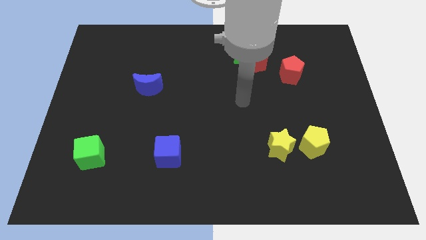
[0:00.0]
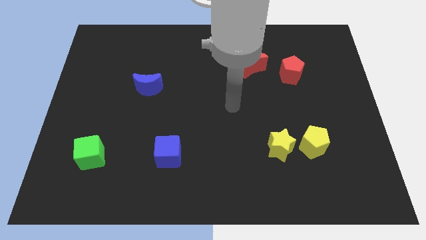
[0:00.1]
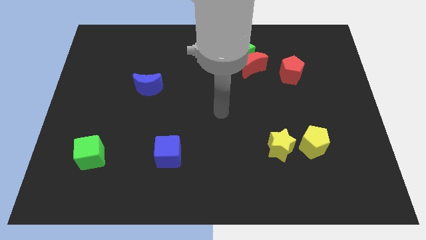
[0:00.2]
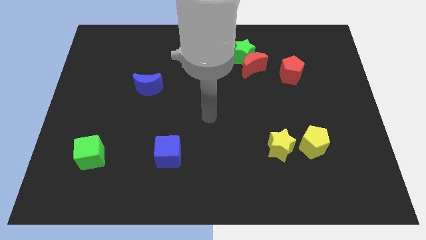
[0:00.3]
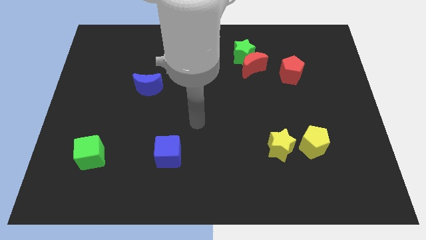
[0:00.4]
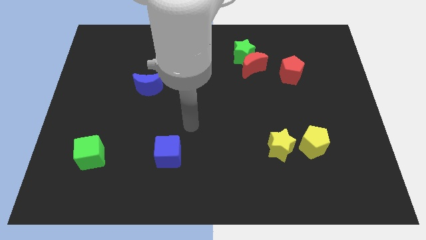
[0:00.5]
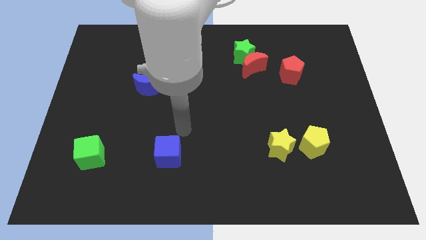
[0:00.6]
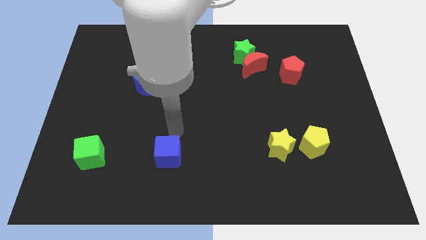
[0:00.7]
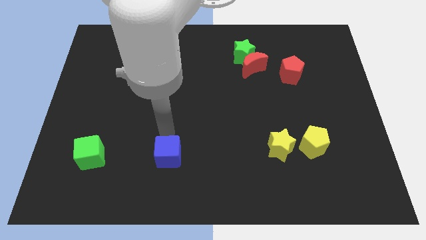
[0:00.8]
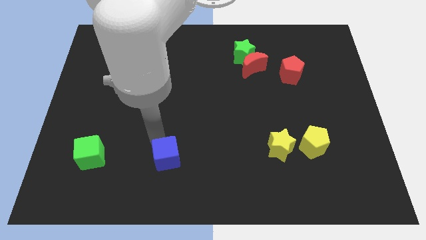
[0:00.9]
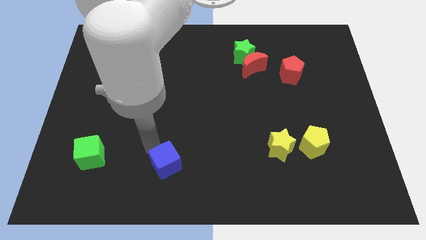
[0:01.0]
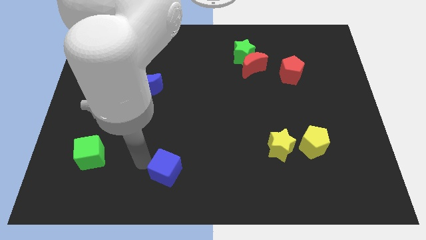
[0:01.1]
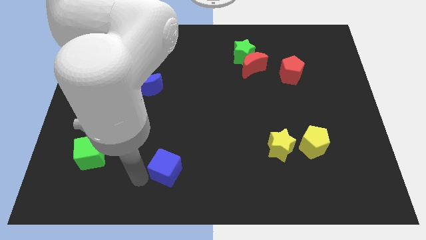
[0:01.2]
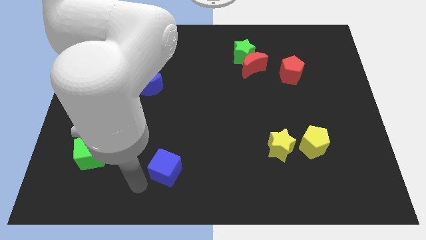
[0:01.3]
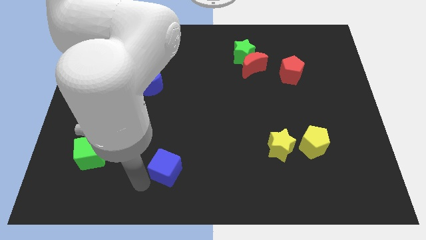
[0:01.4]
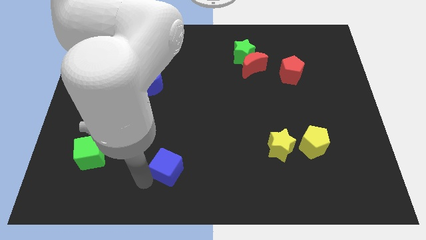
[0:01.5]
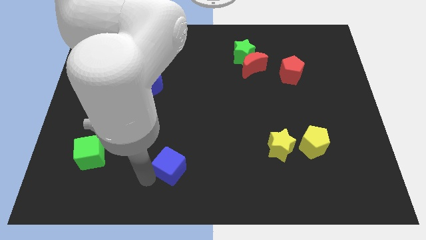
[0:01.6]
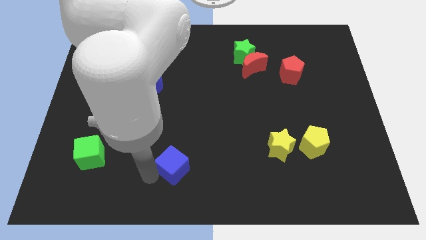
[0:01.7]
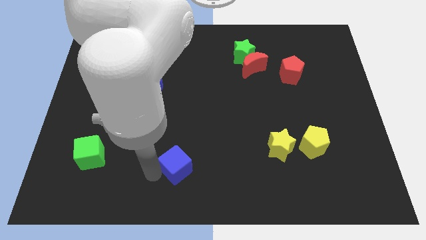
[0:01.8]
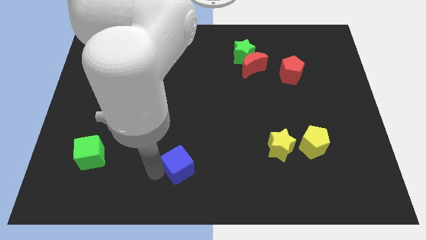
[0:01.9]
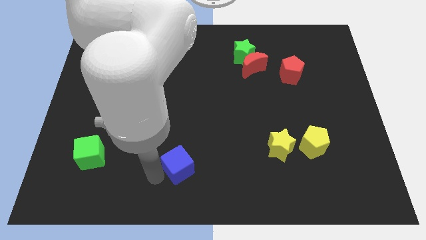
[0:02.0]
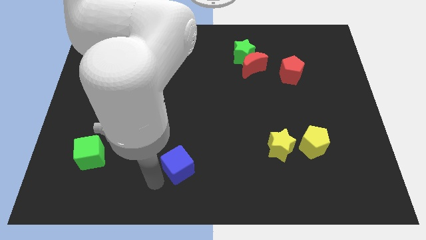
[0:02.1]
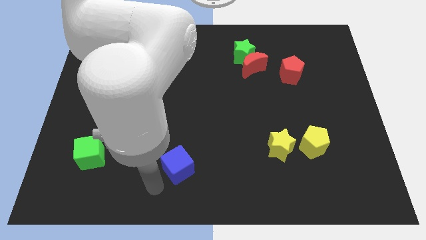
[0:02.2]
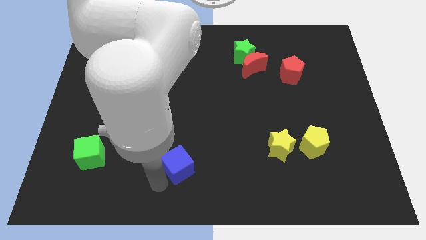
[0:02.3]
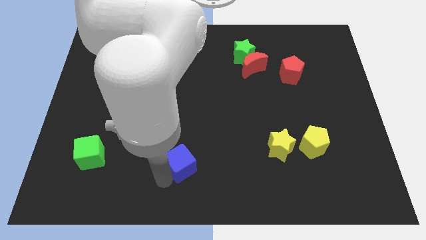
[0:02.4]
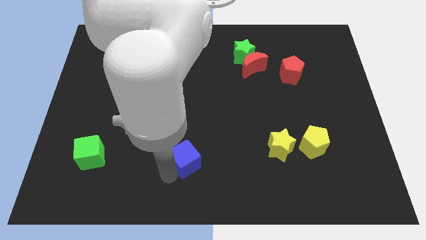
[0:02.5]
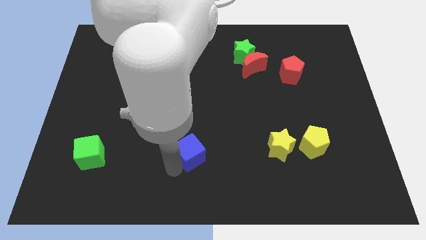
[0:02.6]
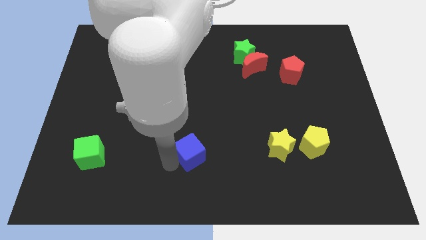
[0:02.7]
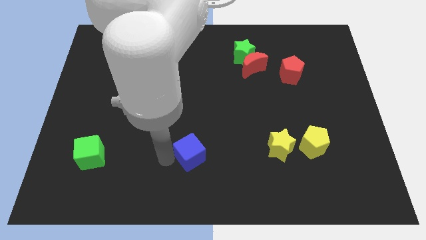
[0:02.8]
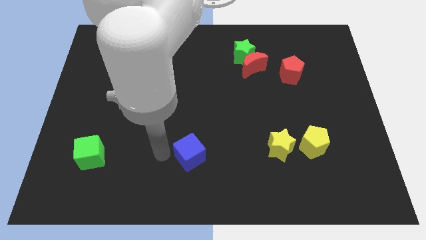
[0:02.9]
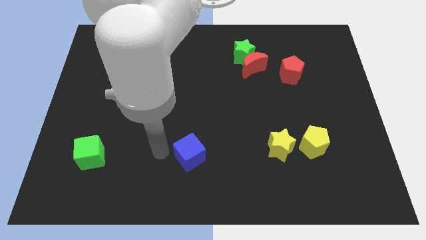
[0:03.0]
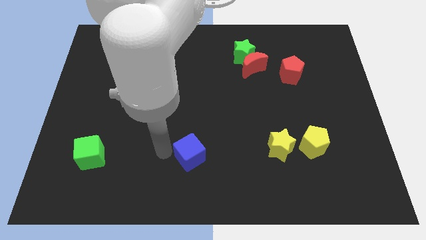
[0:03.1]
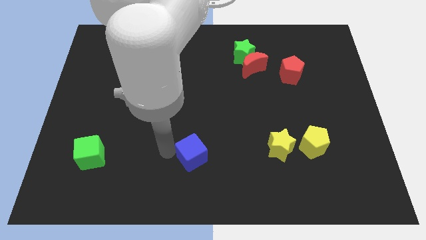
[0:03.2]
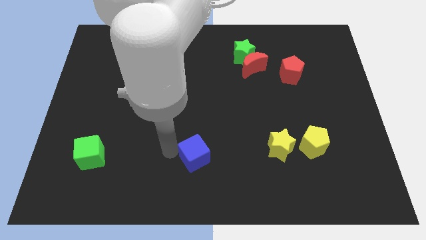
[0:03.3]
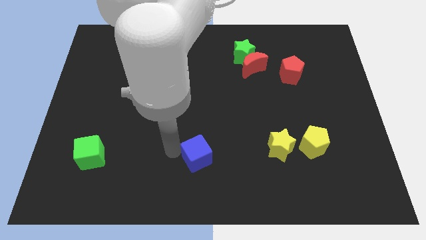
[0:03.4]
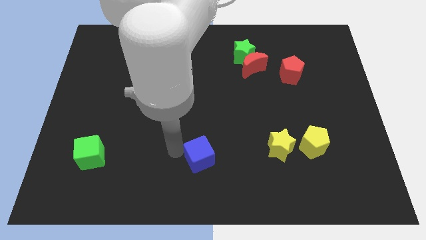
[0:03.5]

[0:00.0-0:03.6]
slide the blue cube to the right a bit

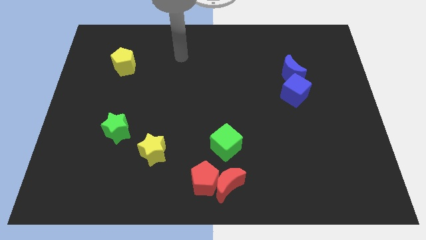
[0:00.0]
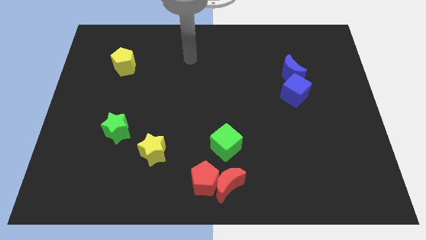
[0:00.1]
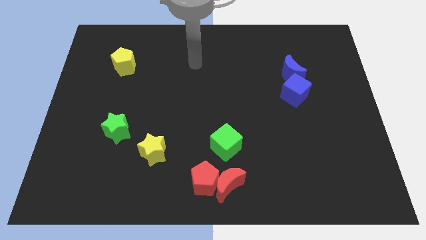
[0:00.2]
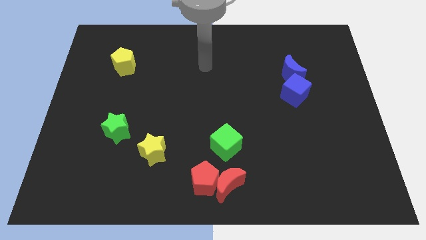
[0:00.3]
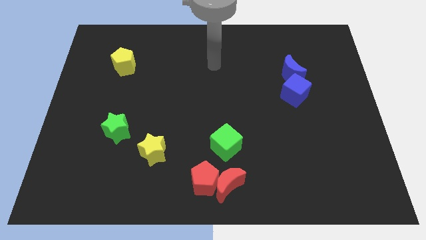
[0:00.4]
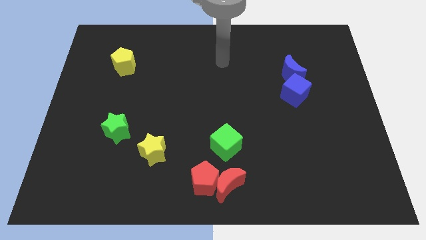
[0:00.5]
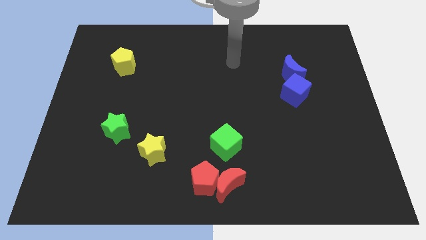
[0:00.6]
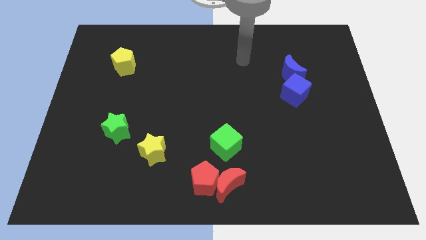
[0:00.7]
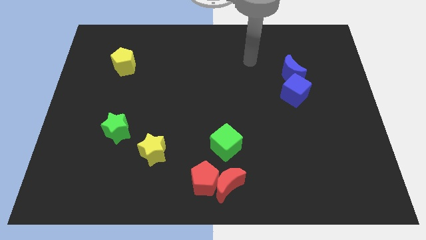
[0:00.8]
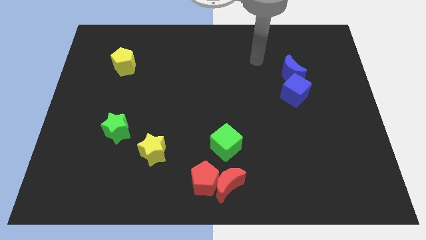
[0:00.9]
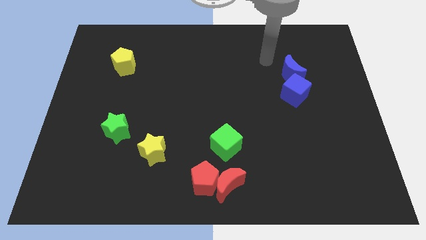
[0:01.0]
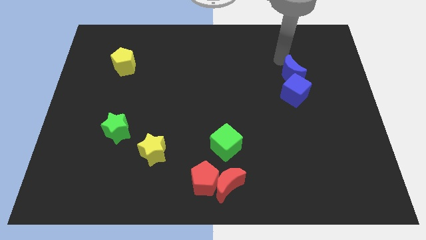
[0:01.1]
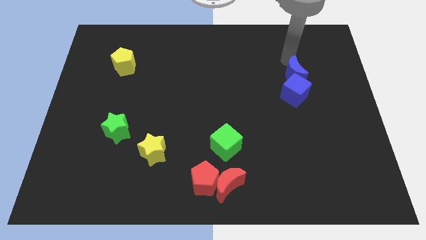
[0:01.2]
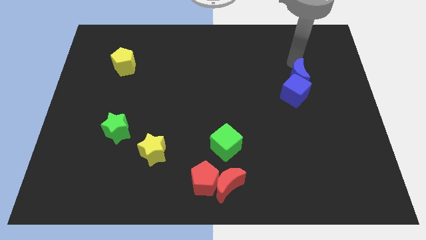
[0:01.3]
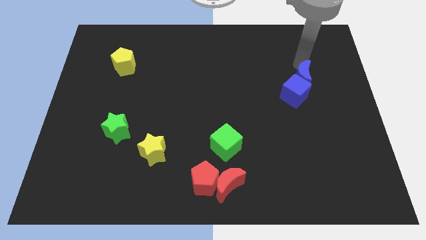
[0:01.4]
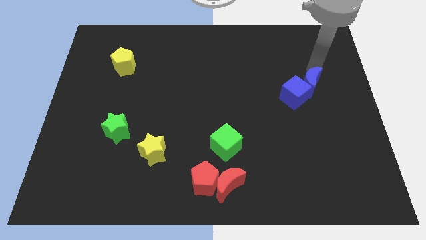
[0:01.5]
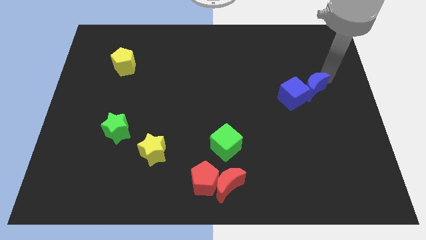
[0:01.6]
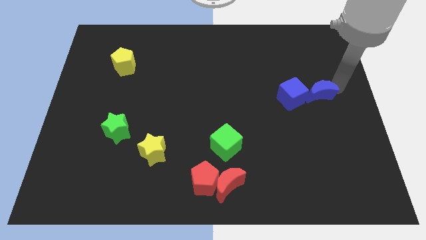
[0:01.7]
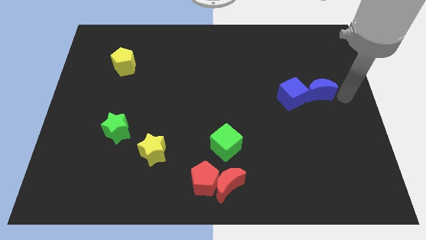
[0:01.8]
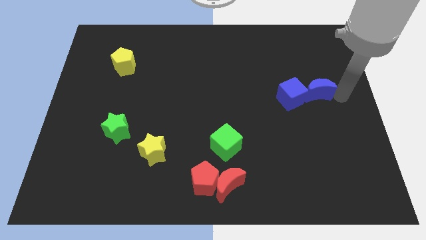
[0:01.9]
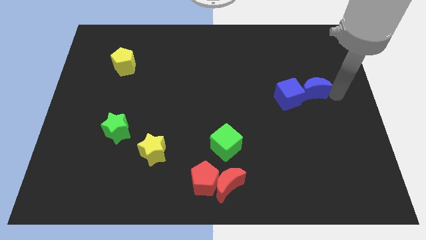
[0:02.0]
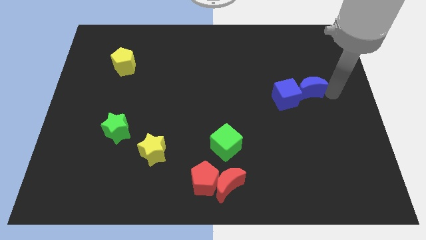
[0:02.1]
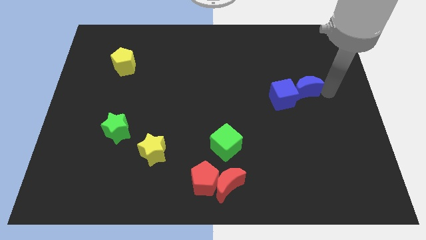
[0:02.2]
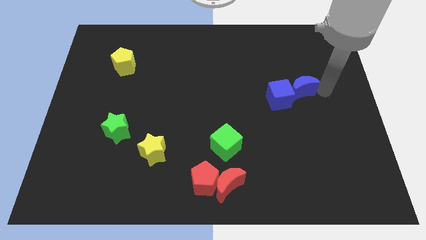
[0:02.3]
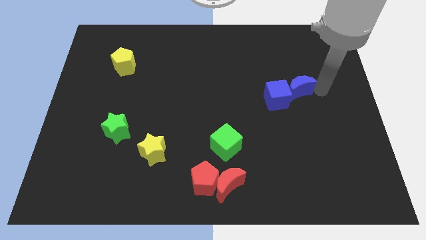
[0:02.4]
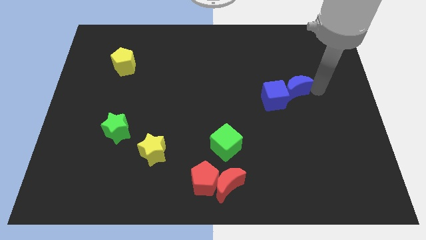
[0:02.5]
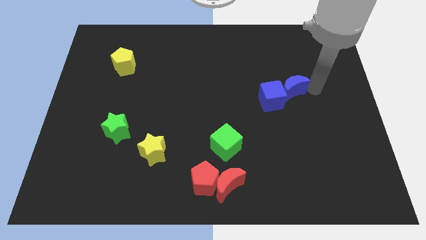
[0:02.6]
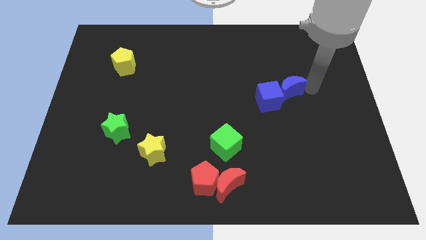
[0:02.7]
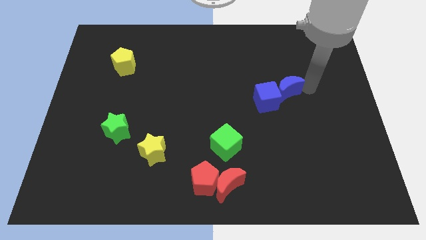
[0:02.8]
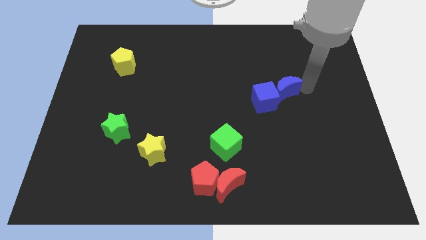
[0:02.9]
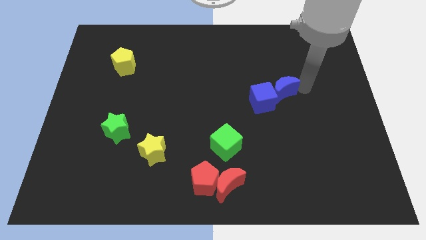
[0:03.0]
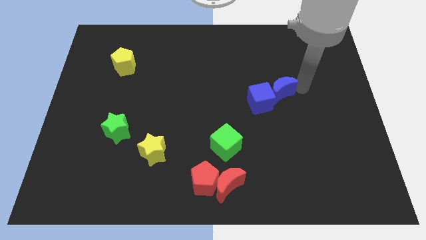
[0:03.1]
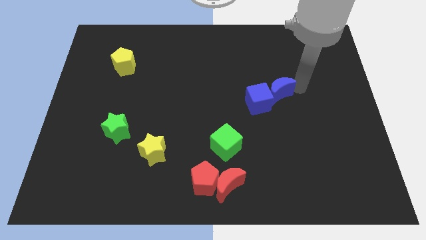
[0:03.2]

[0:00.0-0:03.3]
move the blue moon down and to the left a little bit

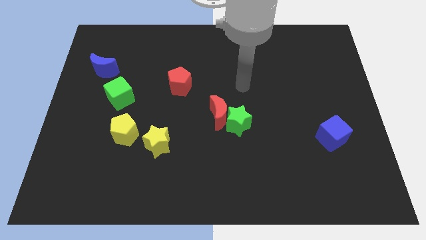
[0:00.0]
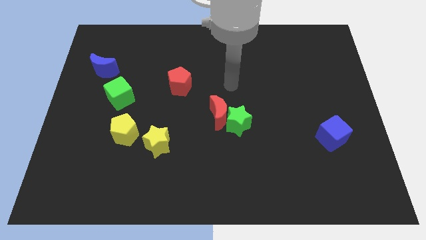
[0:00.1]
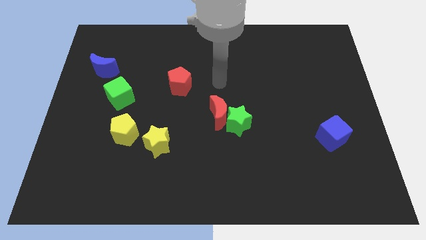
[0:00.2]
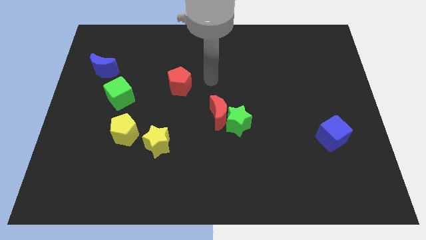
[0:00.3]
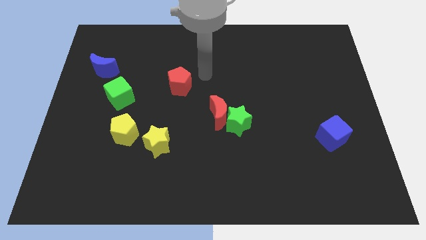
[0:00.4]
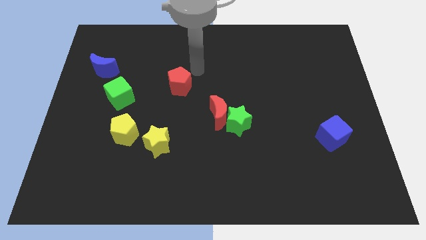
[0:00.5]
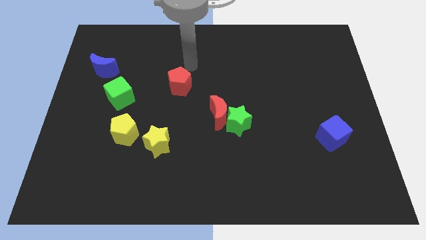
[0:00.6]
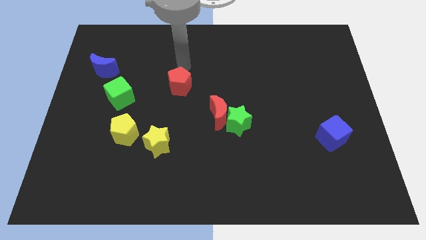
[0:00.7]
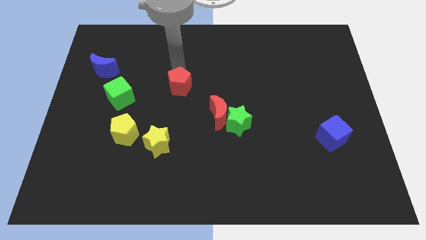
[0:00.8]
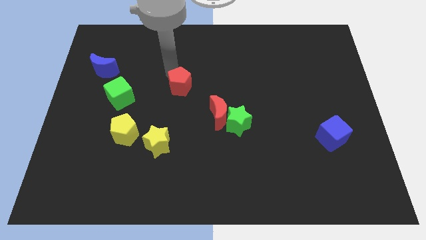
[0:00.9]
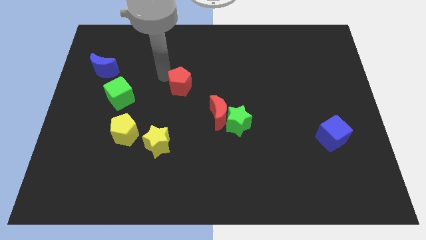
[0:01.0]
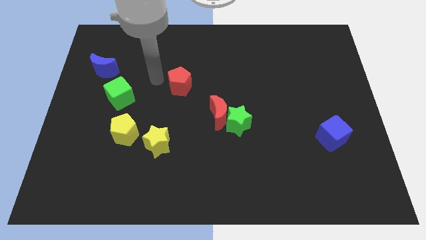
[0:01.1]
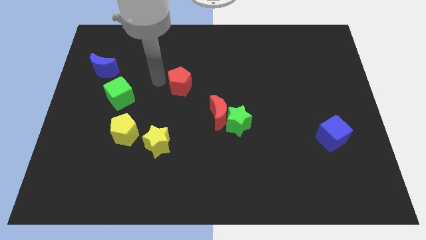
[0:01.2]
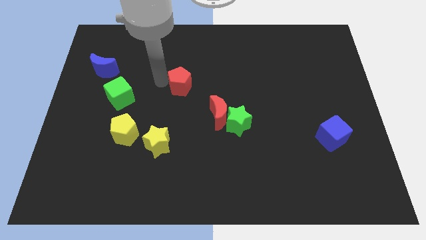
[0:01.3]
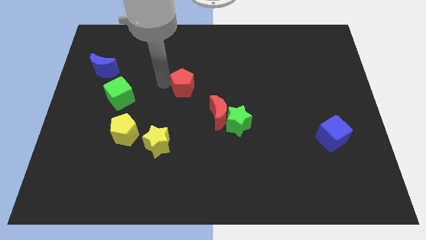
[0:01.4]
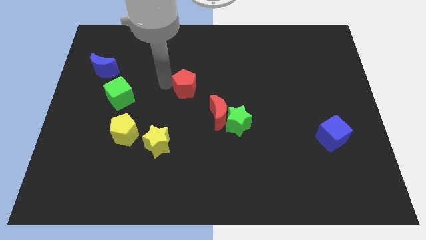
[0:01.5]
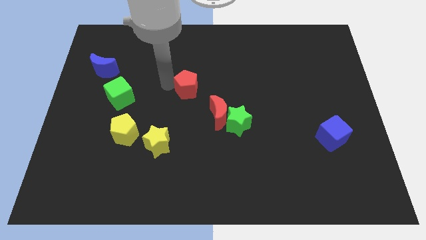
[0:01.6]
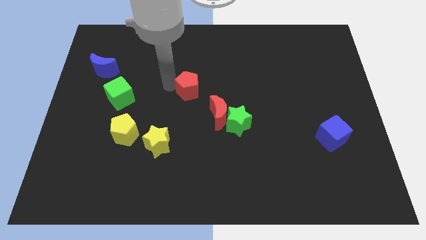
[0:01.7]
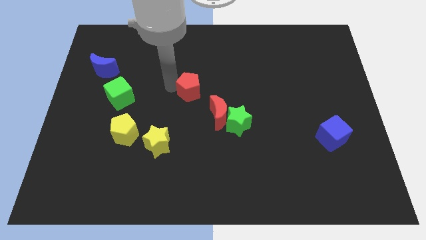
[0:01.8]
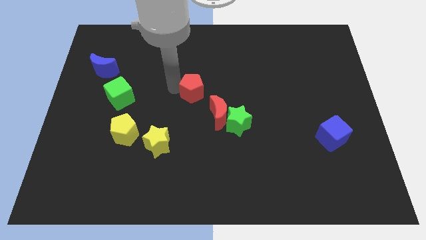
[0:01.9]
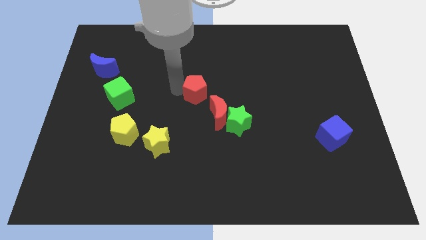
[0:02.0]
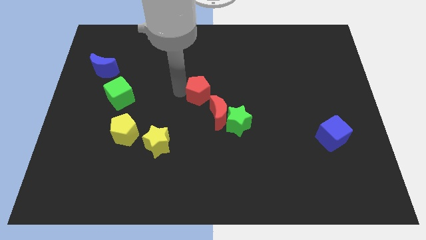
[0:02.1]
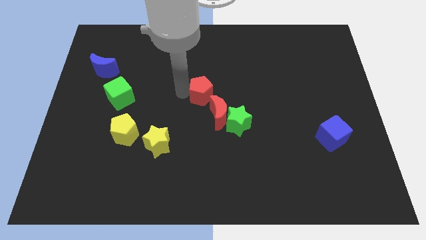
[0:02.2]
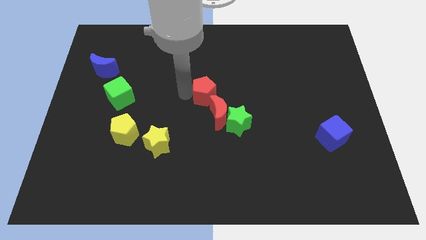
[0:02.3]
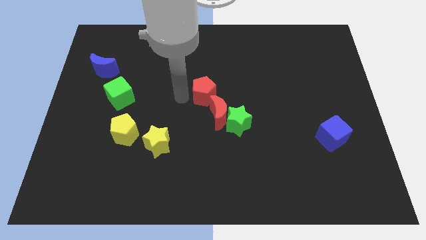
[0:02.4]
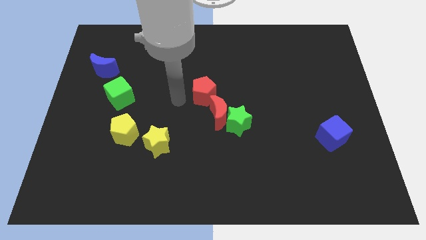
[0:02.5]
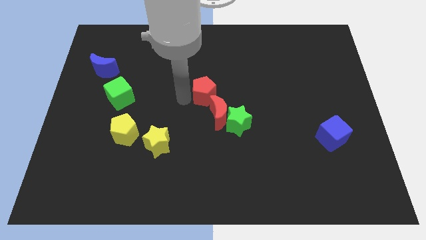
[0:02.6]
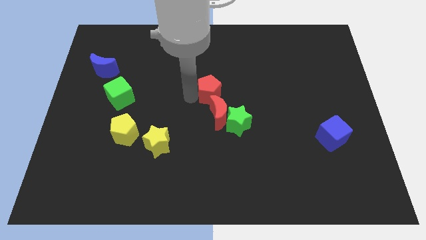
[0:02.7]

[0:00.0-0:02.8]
push the red pentagon right a little
